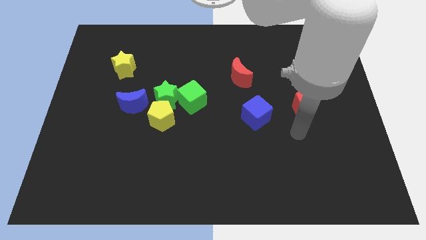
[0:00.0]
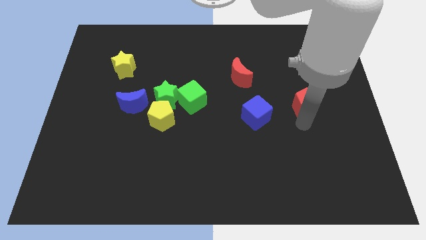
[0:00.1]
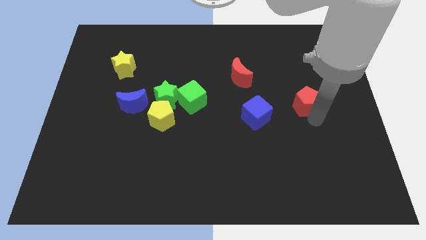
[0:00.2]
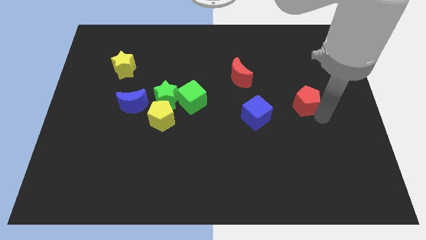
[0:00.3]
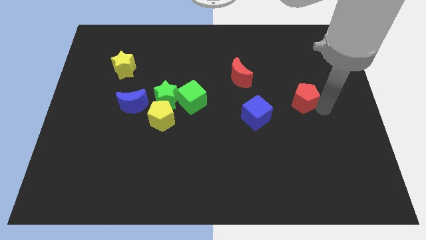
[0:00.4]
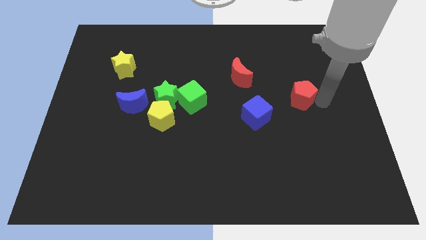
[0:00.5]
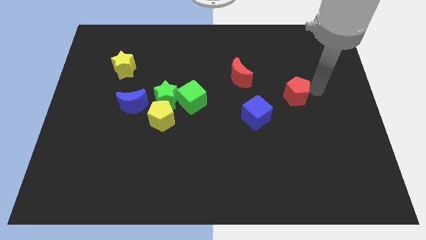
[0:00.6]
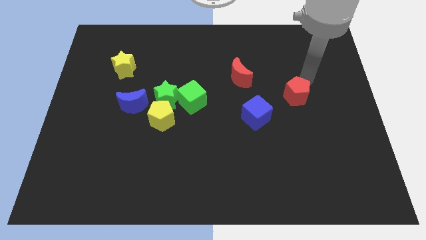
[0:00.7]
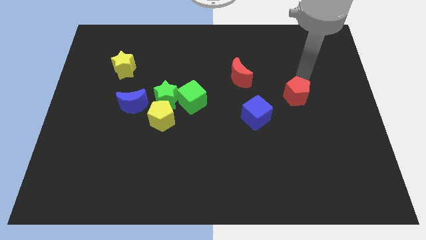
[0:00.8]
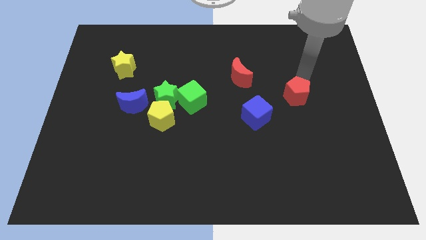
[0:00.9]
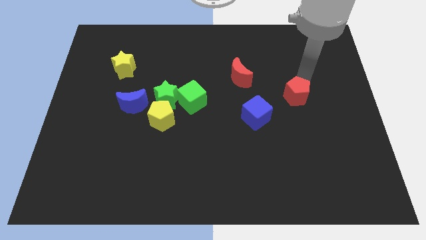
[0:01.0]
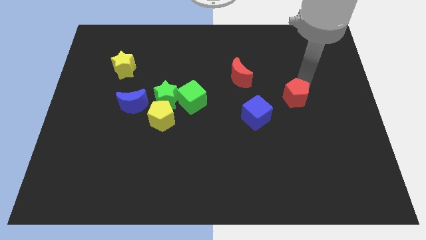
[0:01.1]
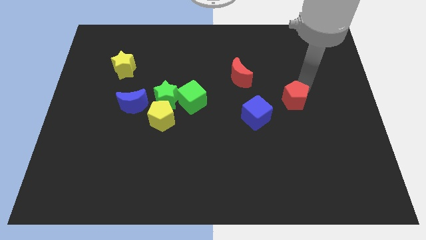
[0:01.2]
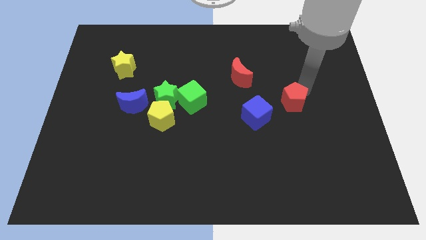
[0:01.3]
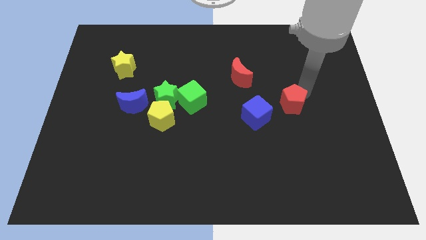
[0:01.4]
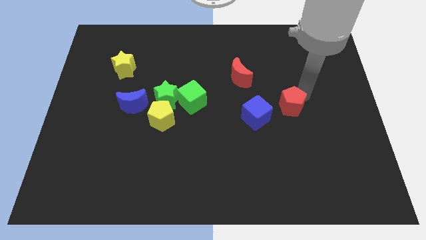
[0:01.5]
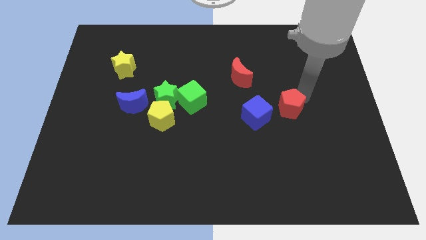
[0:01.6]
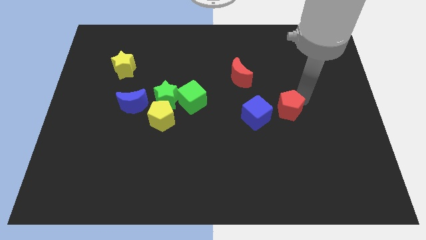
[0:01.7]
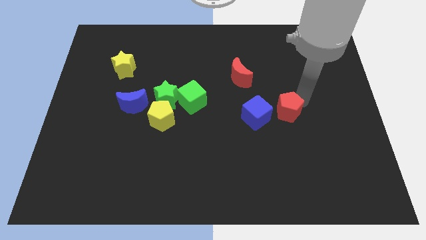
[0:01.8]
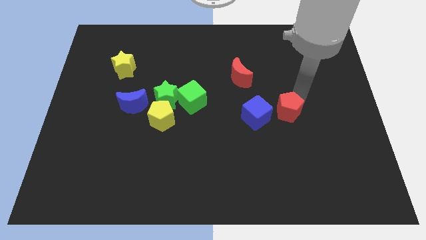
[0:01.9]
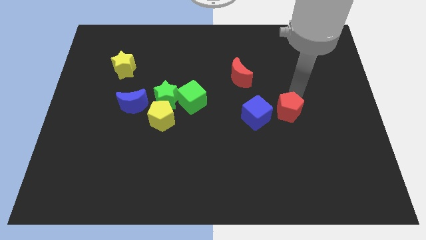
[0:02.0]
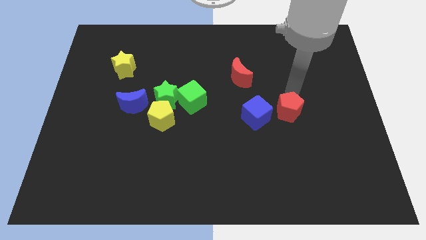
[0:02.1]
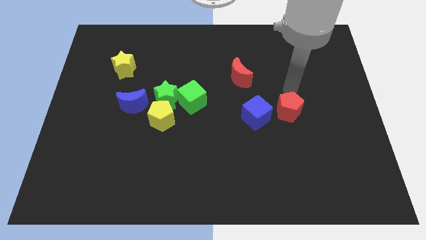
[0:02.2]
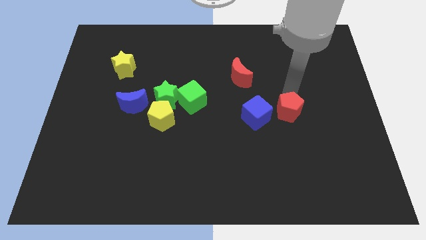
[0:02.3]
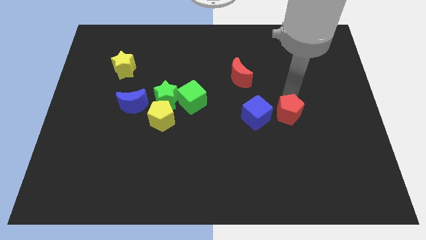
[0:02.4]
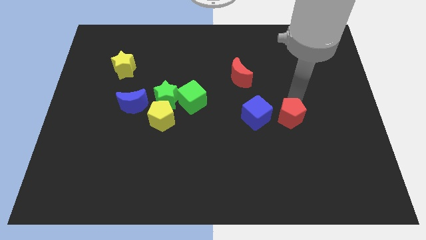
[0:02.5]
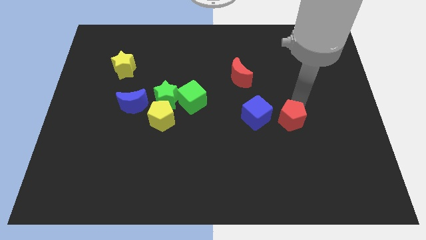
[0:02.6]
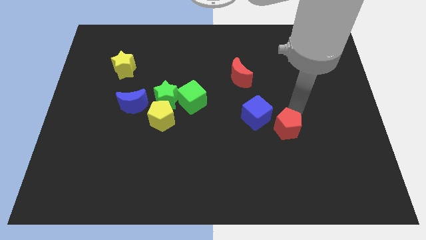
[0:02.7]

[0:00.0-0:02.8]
slightly move the red pentagon down and then left

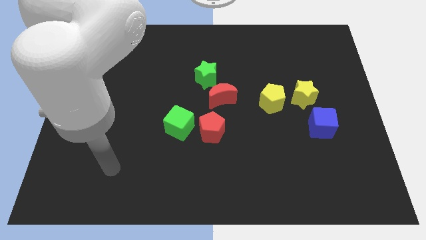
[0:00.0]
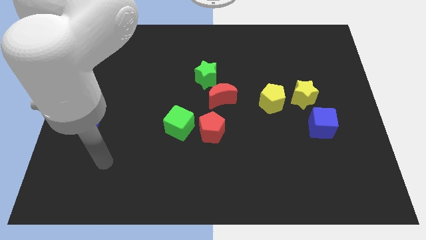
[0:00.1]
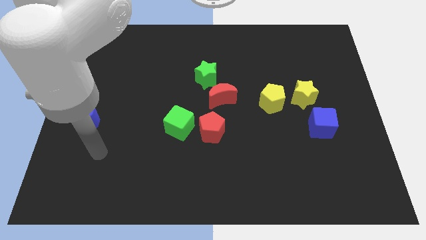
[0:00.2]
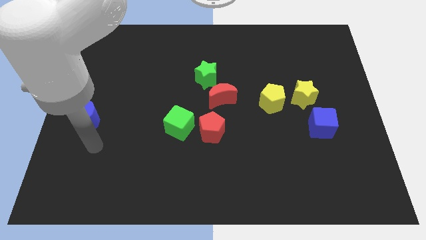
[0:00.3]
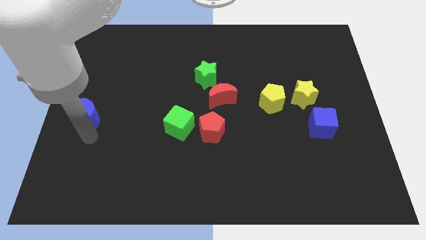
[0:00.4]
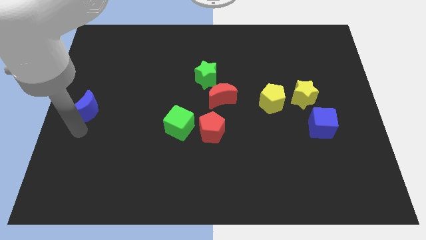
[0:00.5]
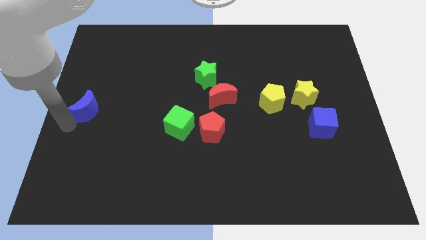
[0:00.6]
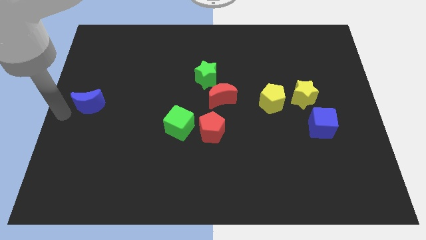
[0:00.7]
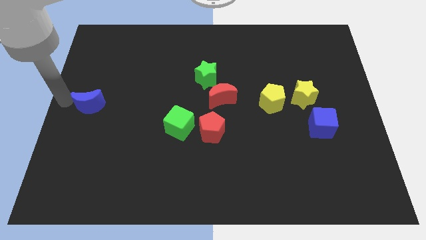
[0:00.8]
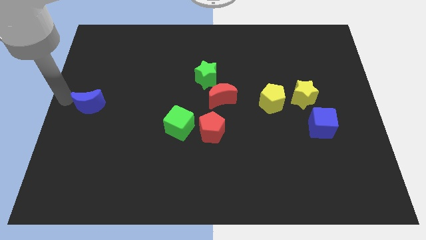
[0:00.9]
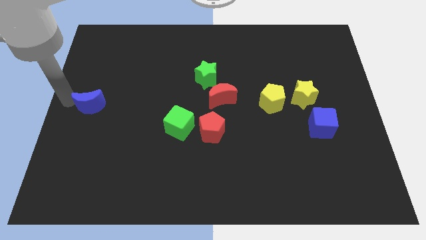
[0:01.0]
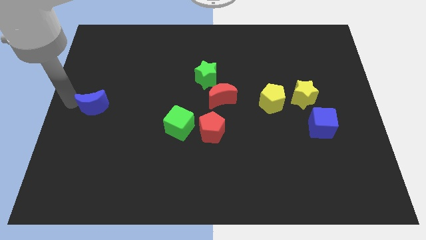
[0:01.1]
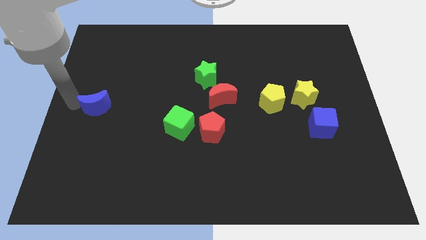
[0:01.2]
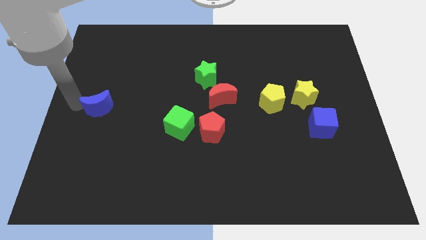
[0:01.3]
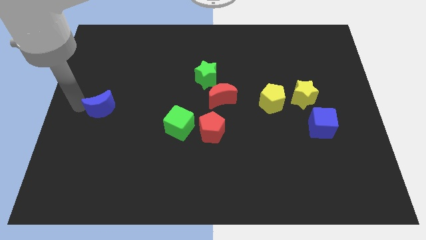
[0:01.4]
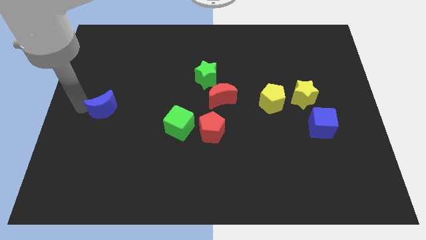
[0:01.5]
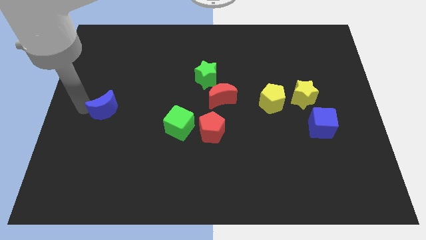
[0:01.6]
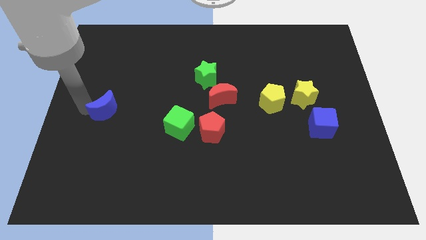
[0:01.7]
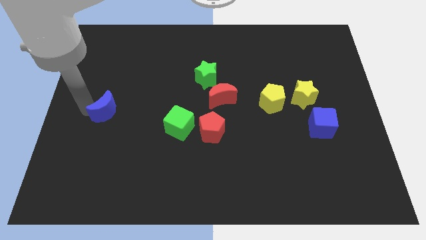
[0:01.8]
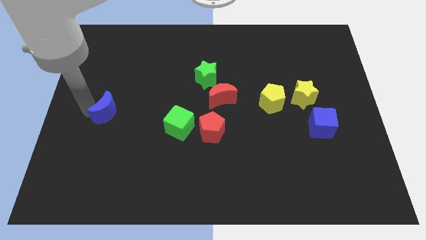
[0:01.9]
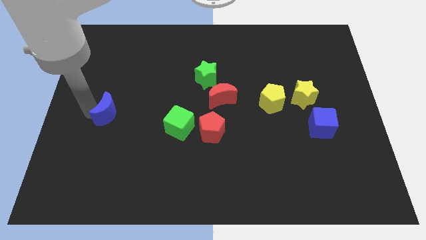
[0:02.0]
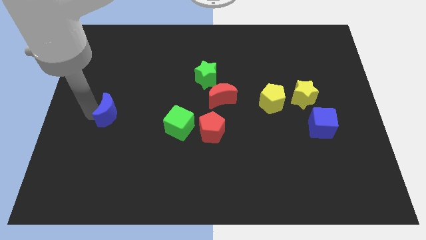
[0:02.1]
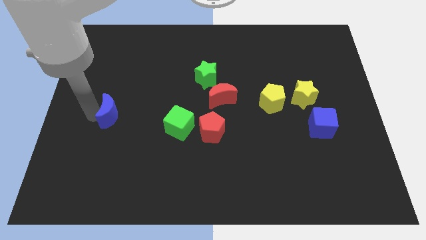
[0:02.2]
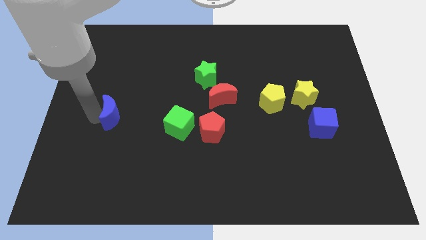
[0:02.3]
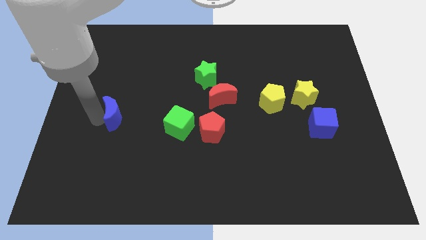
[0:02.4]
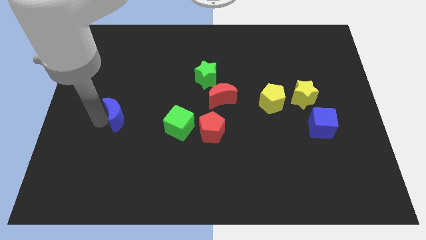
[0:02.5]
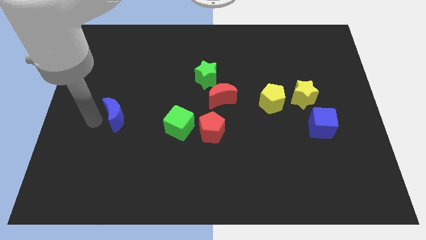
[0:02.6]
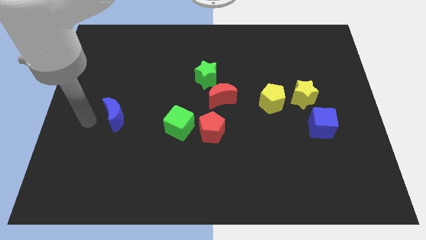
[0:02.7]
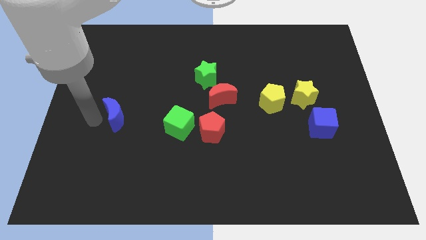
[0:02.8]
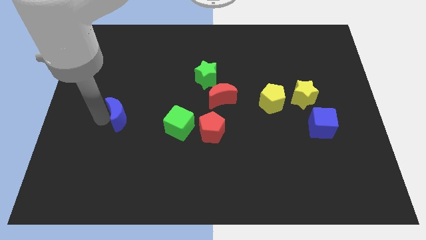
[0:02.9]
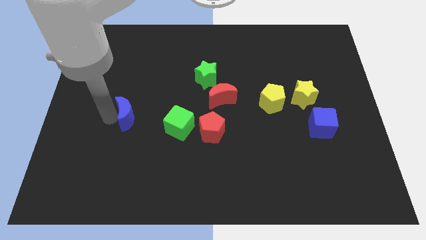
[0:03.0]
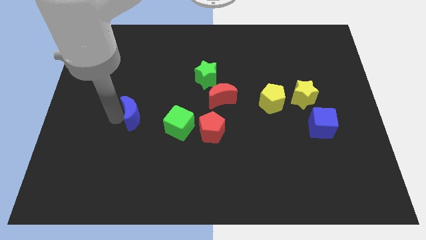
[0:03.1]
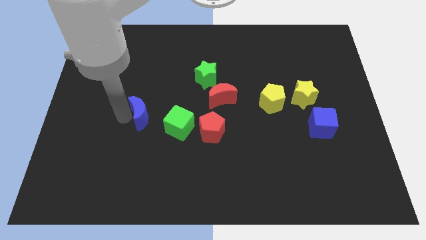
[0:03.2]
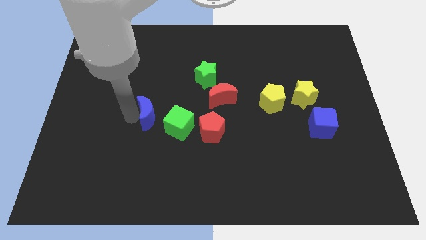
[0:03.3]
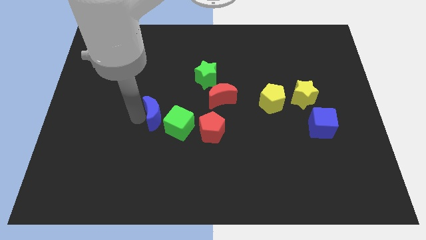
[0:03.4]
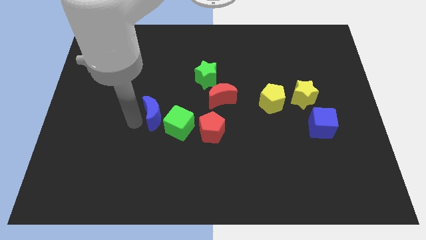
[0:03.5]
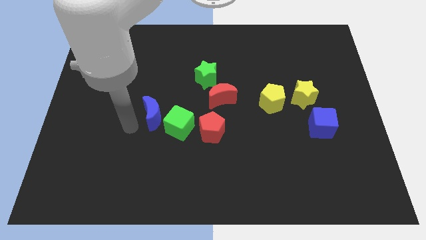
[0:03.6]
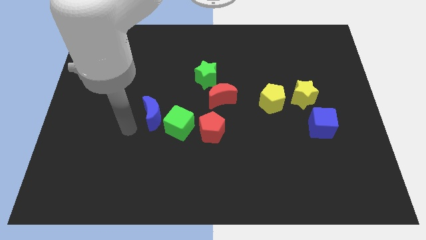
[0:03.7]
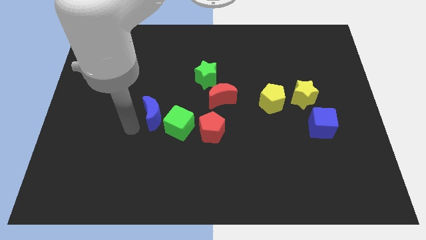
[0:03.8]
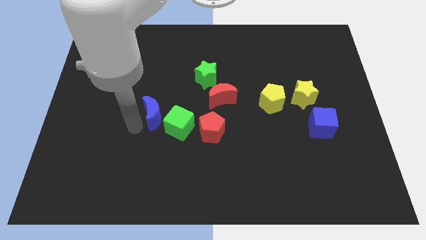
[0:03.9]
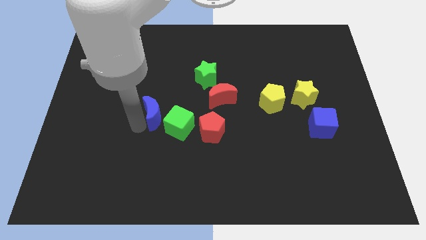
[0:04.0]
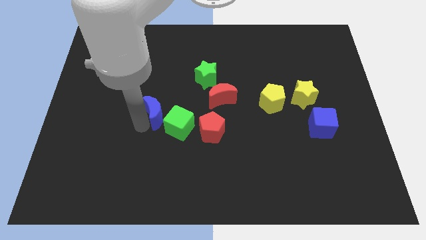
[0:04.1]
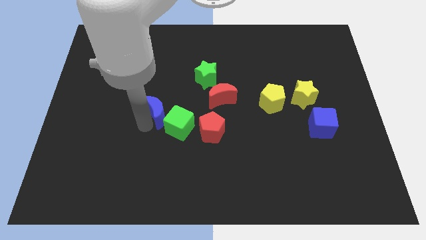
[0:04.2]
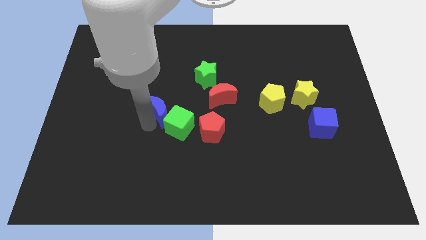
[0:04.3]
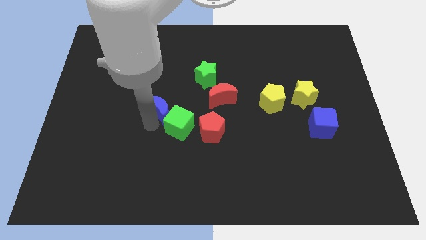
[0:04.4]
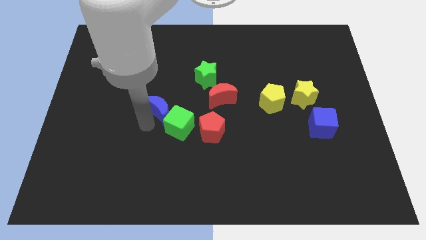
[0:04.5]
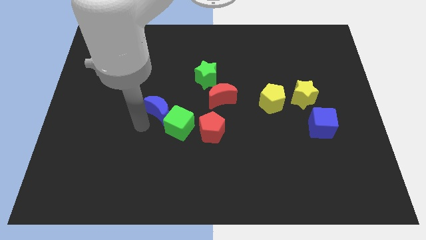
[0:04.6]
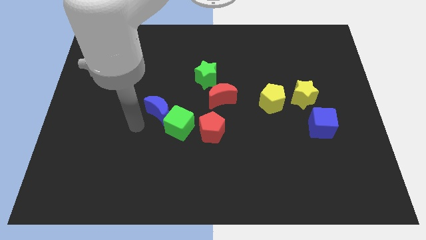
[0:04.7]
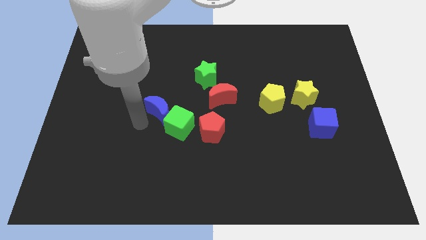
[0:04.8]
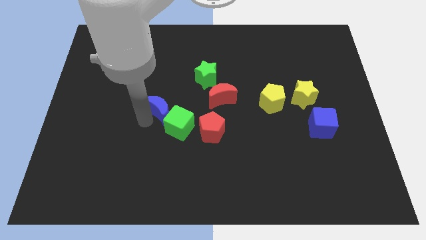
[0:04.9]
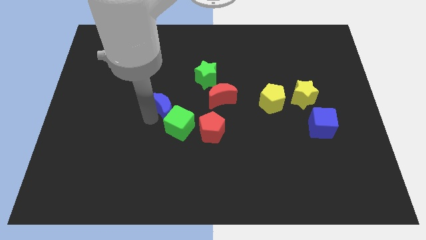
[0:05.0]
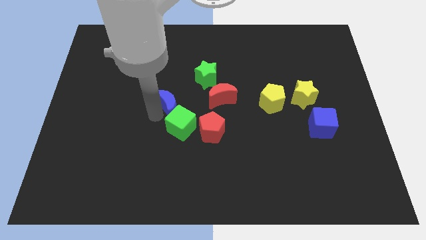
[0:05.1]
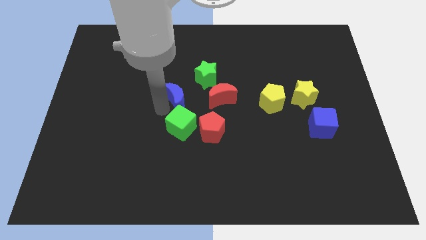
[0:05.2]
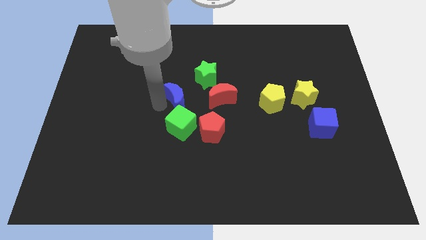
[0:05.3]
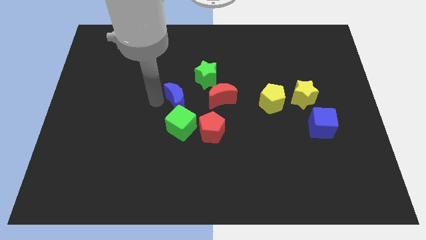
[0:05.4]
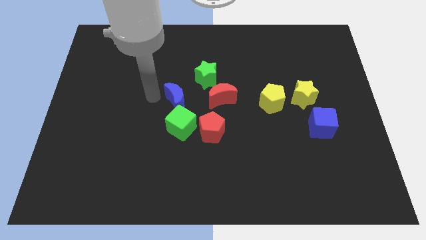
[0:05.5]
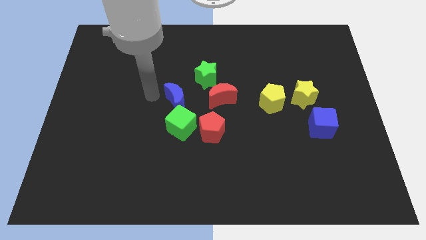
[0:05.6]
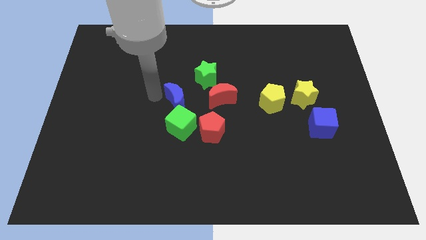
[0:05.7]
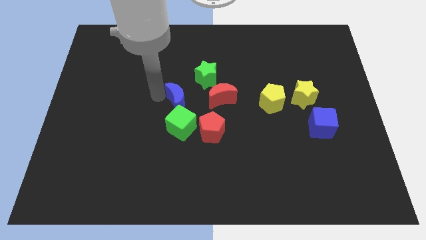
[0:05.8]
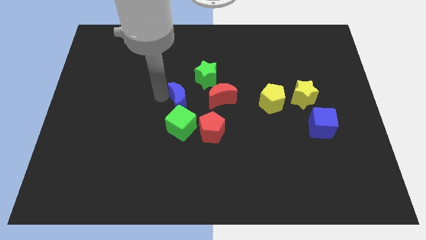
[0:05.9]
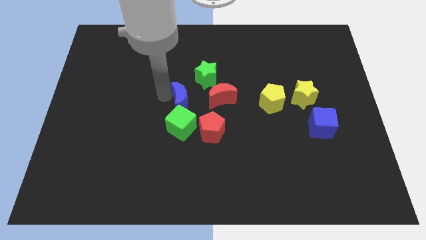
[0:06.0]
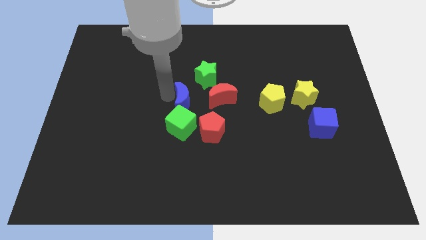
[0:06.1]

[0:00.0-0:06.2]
move the blue moon right
